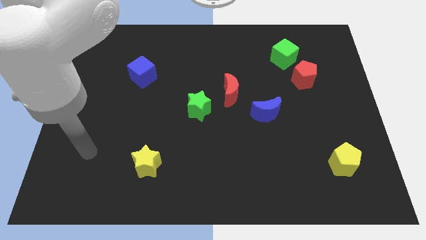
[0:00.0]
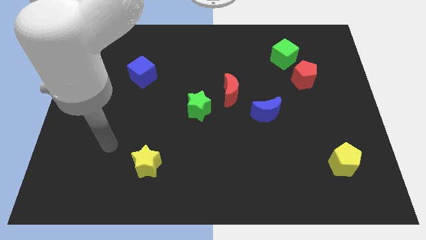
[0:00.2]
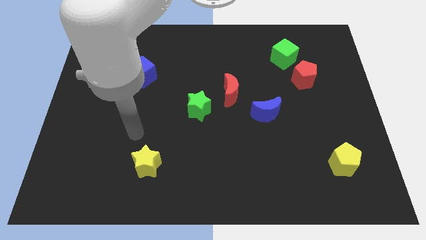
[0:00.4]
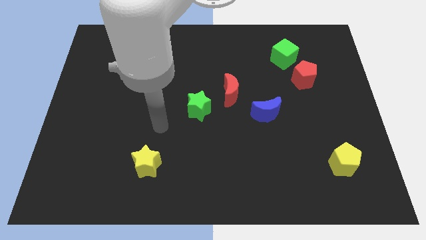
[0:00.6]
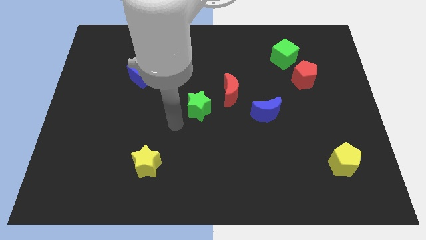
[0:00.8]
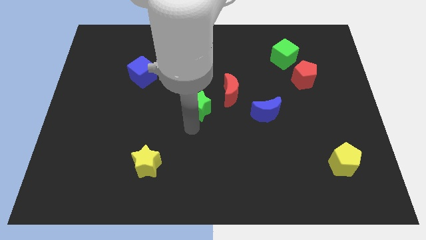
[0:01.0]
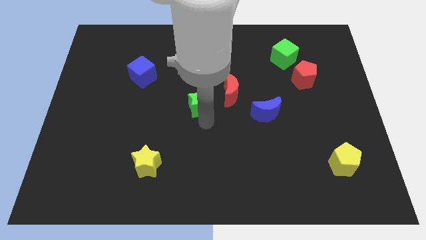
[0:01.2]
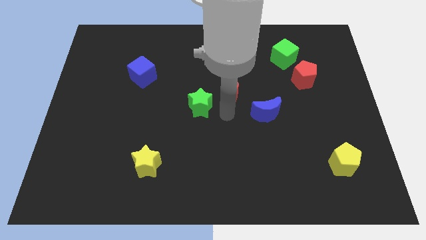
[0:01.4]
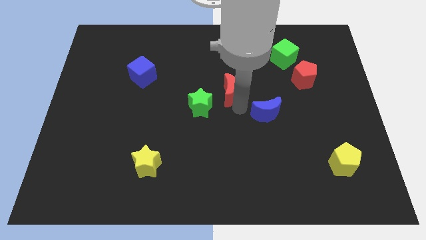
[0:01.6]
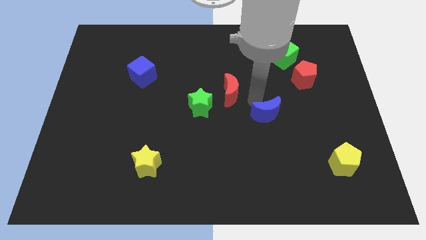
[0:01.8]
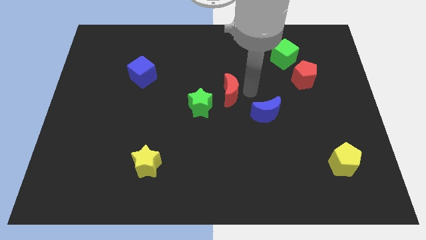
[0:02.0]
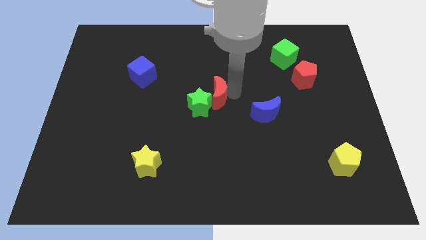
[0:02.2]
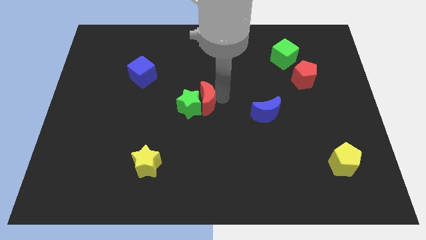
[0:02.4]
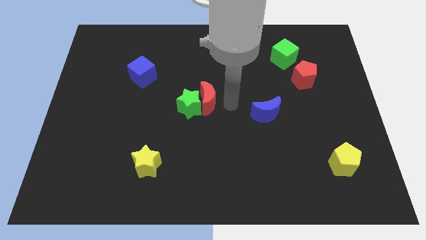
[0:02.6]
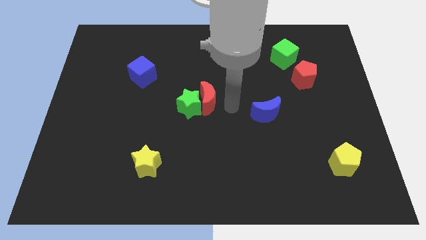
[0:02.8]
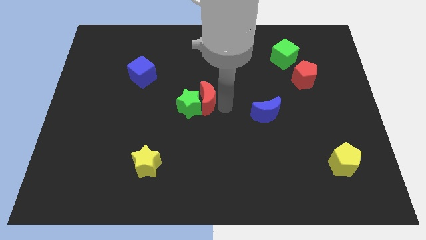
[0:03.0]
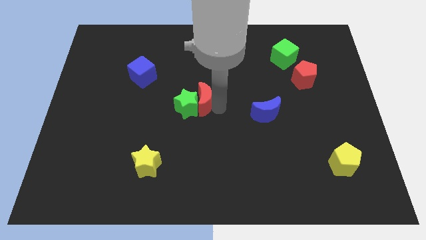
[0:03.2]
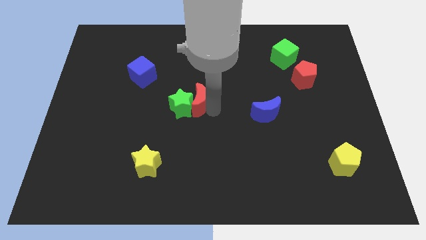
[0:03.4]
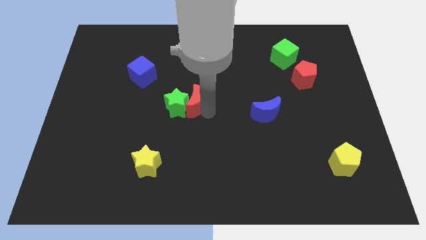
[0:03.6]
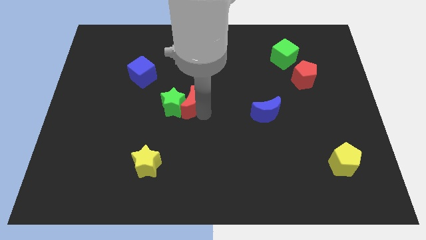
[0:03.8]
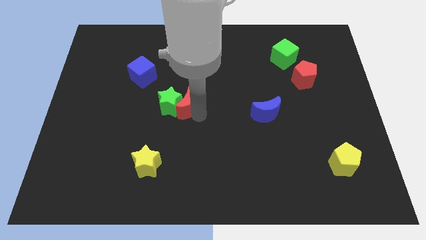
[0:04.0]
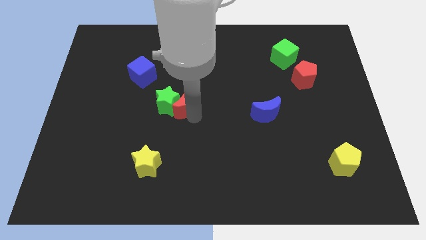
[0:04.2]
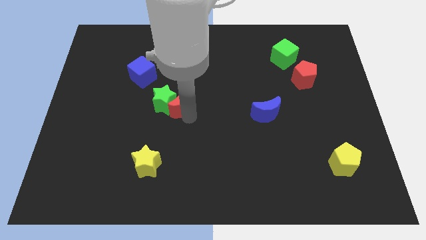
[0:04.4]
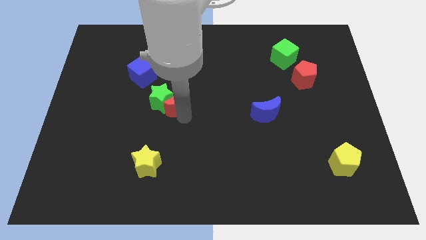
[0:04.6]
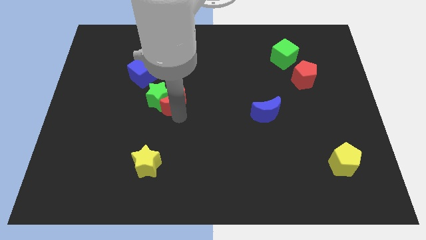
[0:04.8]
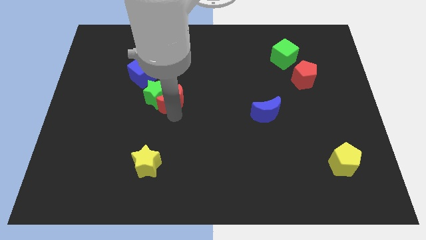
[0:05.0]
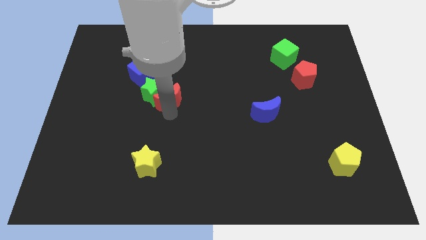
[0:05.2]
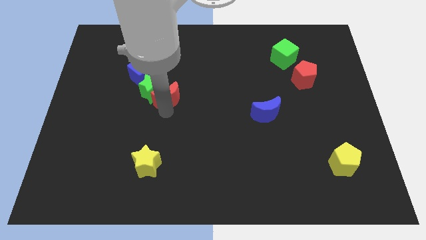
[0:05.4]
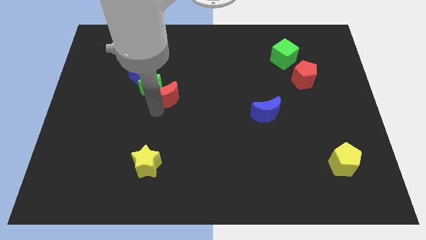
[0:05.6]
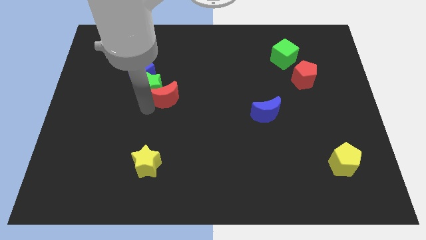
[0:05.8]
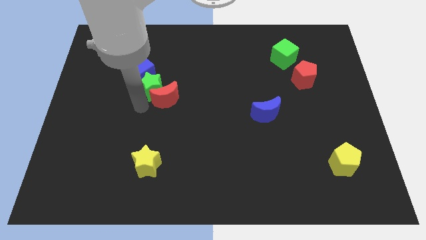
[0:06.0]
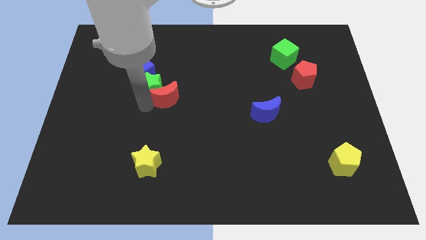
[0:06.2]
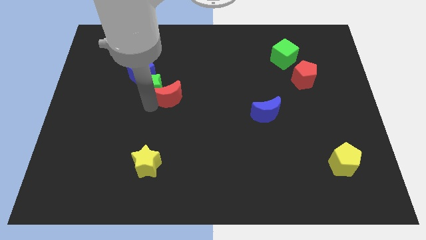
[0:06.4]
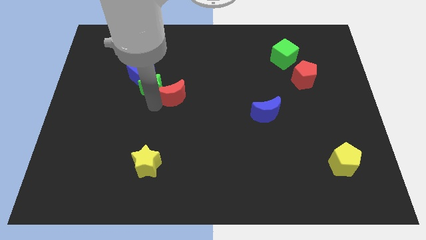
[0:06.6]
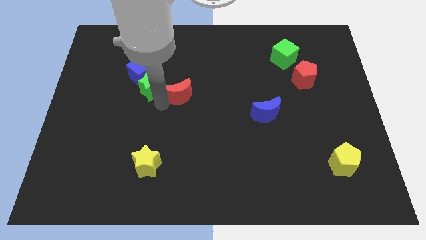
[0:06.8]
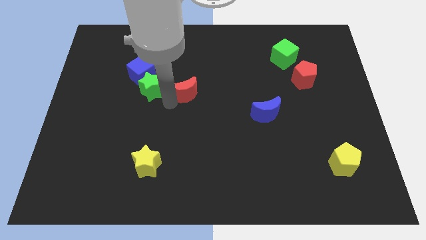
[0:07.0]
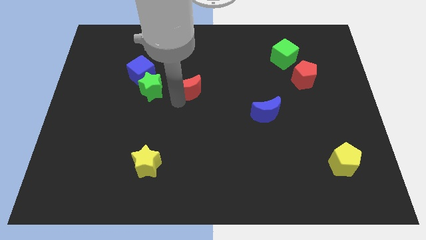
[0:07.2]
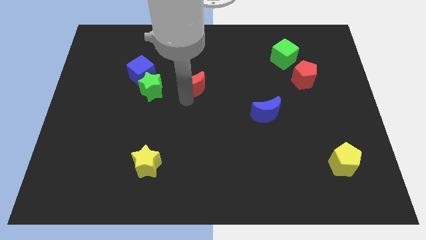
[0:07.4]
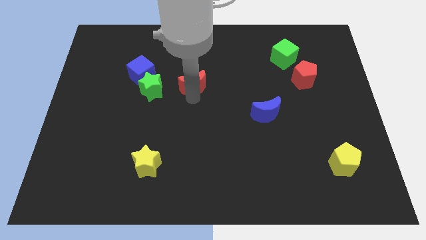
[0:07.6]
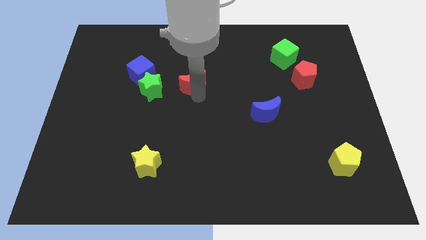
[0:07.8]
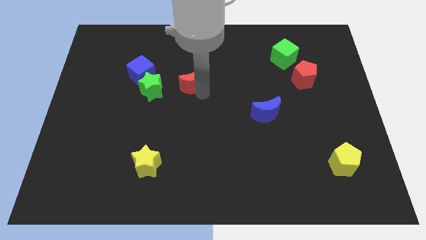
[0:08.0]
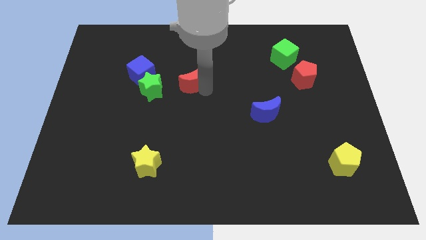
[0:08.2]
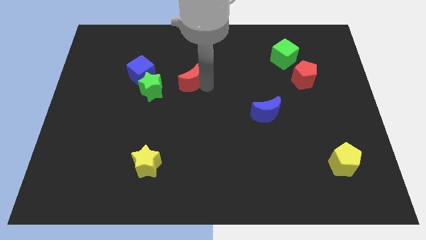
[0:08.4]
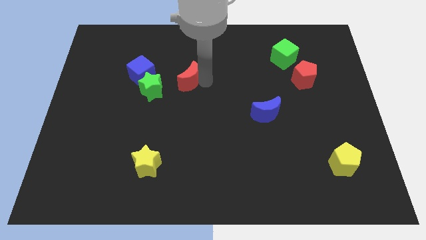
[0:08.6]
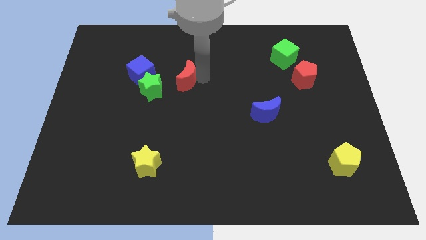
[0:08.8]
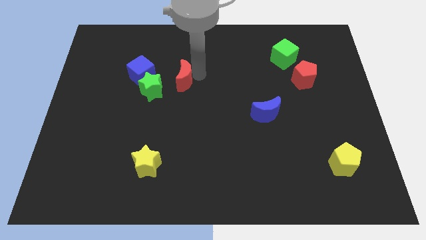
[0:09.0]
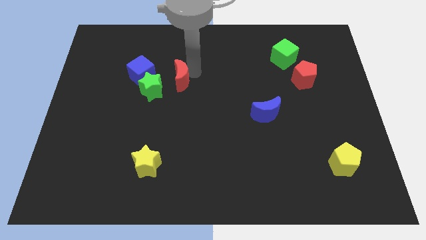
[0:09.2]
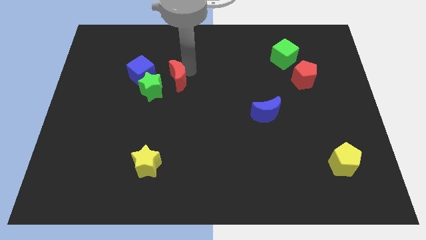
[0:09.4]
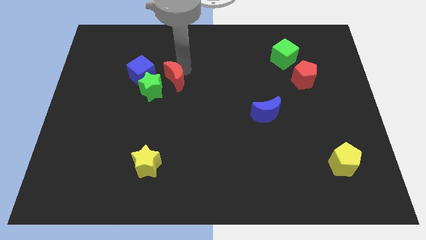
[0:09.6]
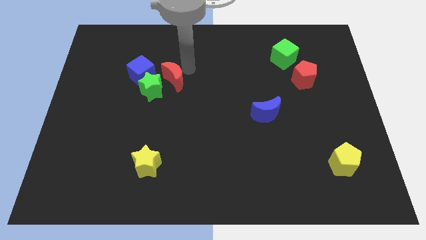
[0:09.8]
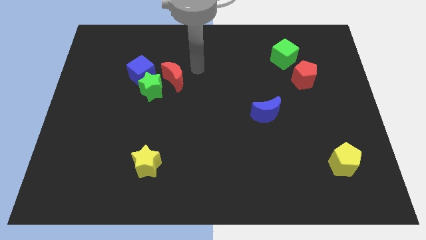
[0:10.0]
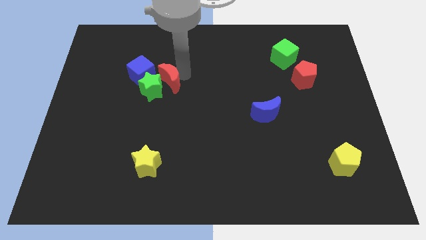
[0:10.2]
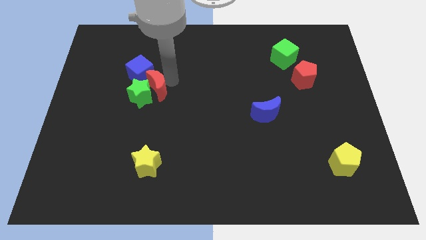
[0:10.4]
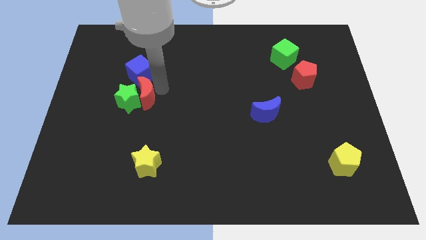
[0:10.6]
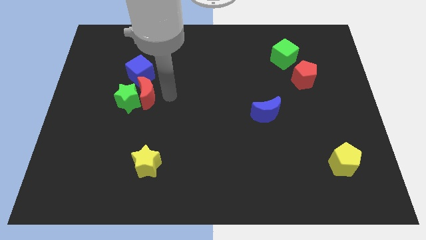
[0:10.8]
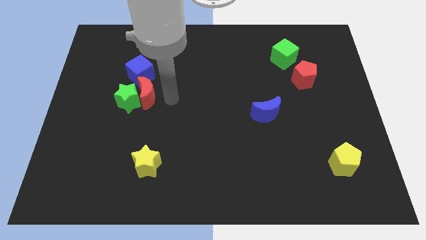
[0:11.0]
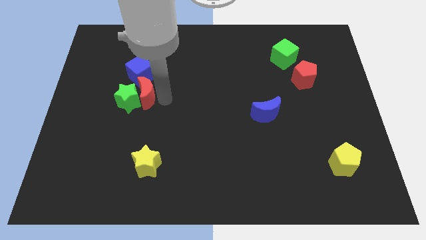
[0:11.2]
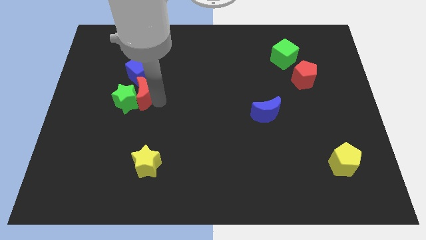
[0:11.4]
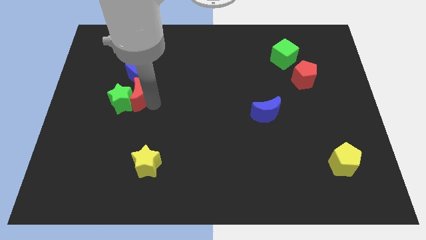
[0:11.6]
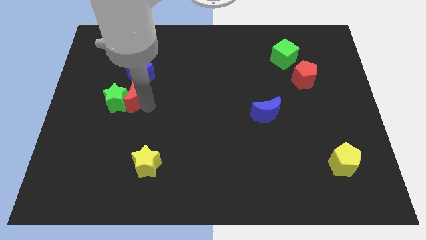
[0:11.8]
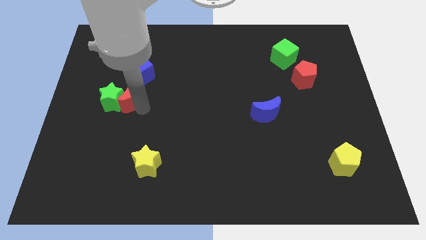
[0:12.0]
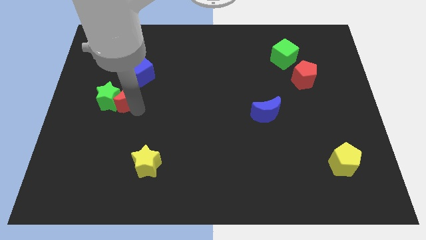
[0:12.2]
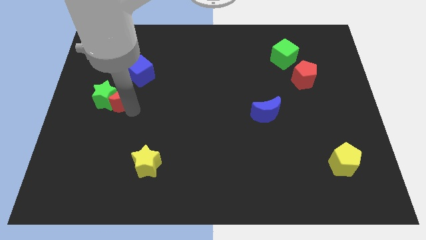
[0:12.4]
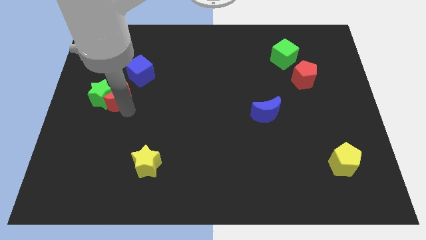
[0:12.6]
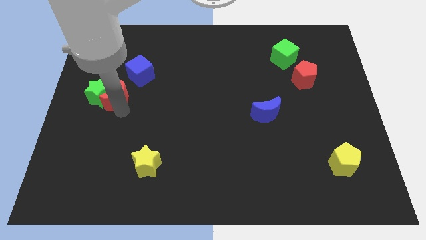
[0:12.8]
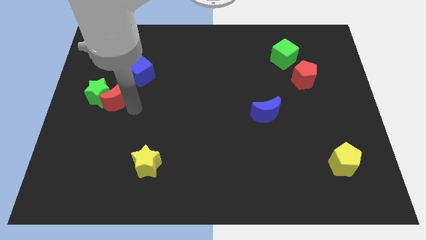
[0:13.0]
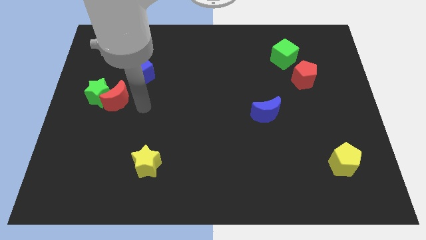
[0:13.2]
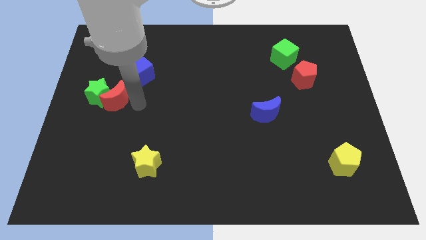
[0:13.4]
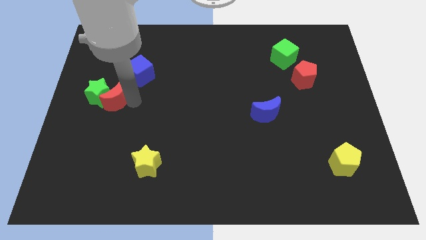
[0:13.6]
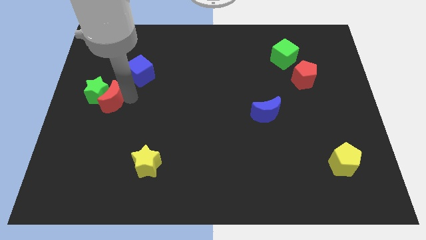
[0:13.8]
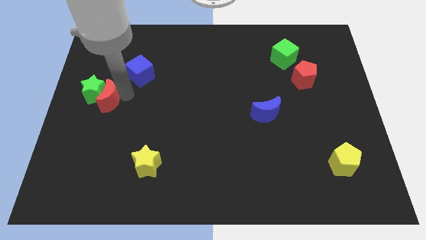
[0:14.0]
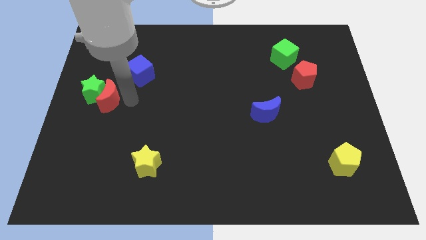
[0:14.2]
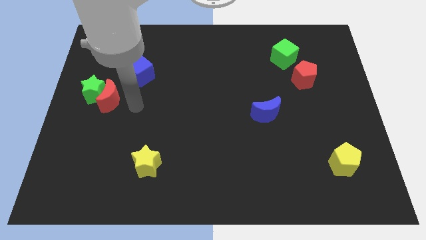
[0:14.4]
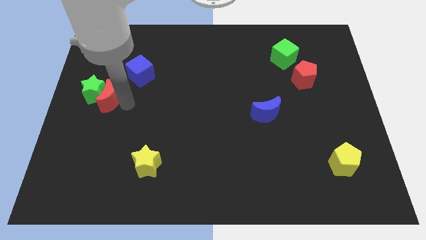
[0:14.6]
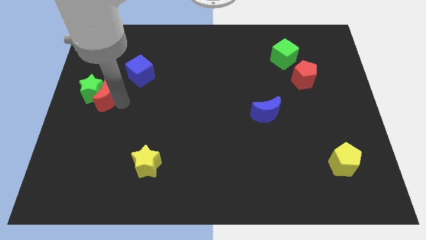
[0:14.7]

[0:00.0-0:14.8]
push the red moon to the left side
